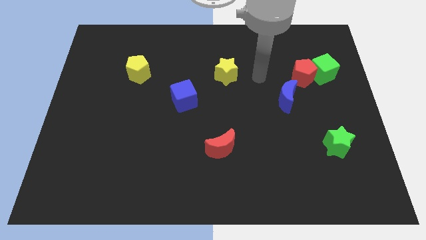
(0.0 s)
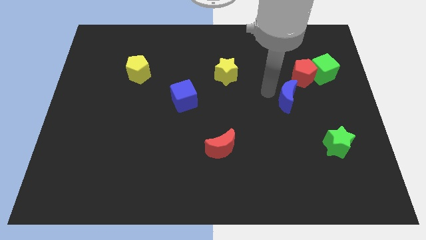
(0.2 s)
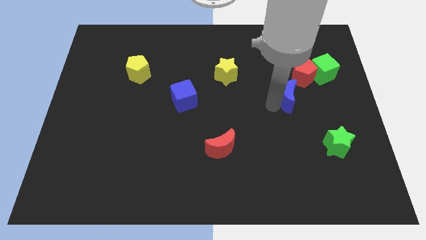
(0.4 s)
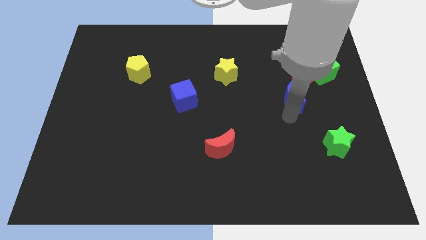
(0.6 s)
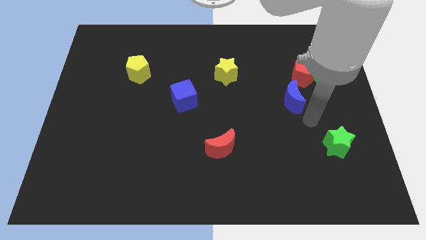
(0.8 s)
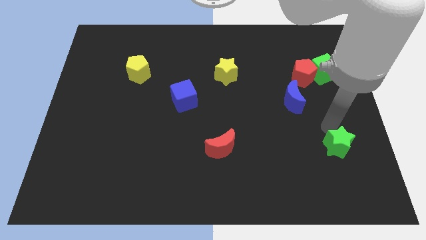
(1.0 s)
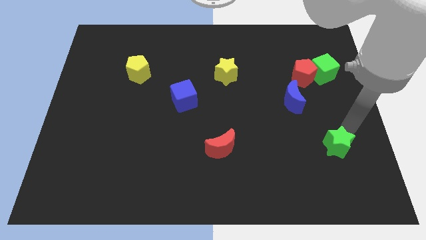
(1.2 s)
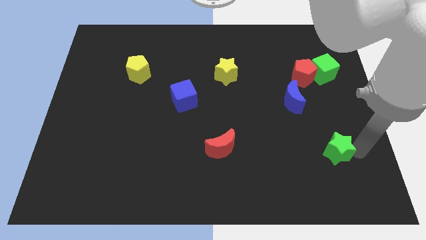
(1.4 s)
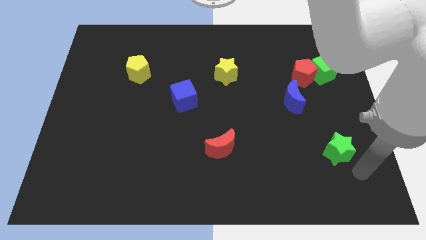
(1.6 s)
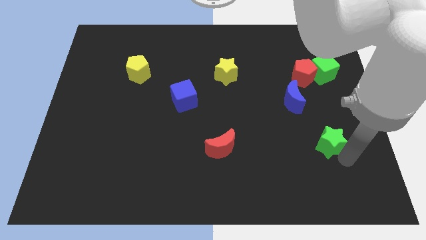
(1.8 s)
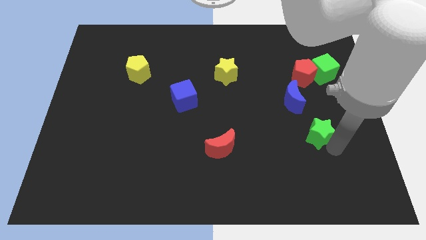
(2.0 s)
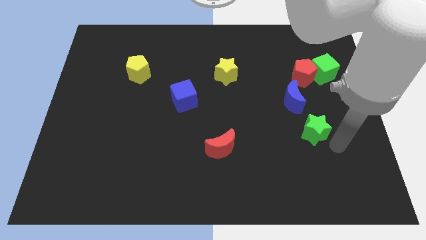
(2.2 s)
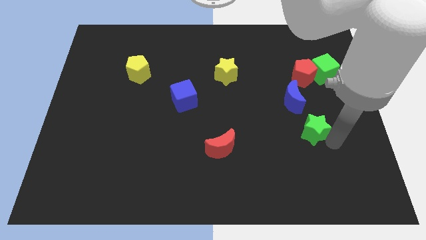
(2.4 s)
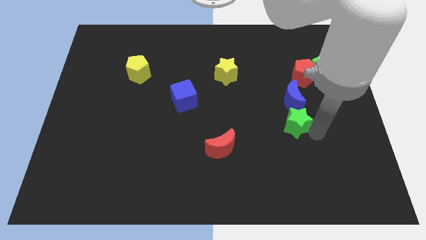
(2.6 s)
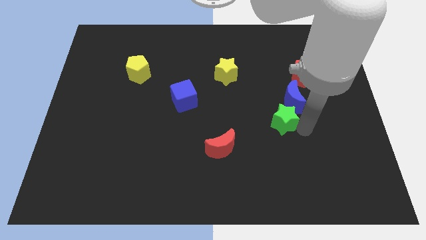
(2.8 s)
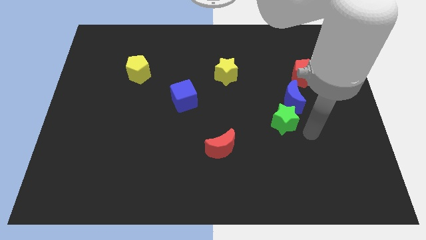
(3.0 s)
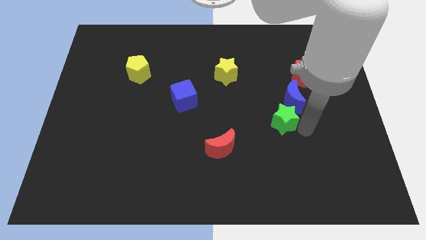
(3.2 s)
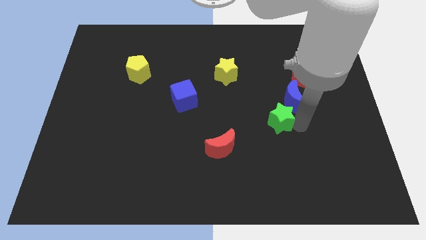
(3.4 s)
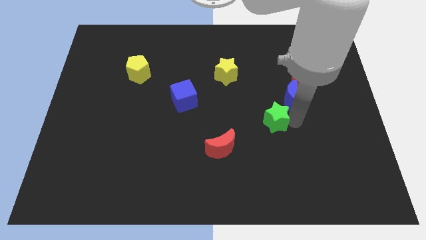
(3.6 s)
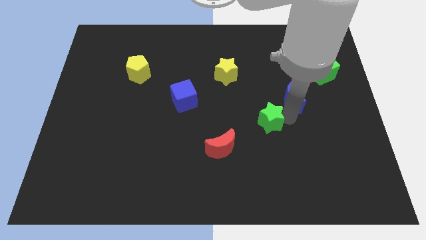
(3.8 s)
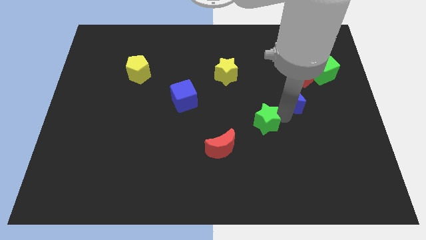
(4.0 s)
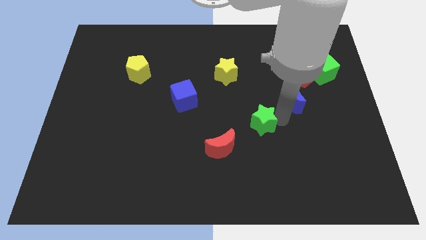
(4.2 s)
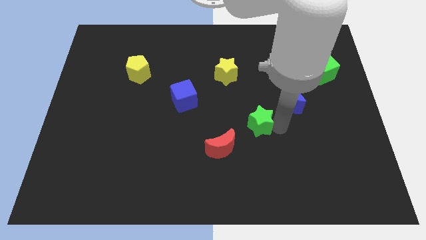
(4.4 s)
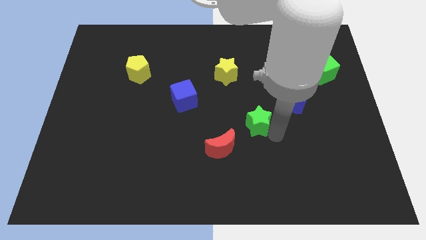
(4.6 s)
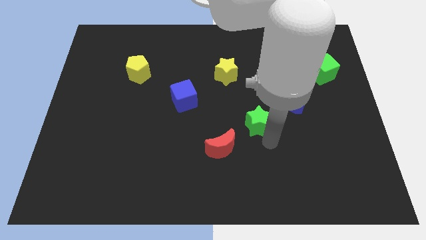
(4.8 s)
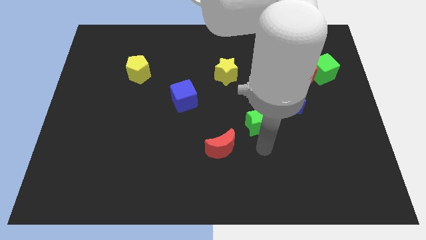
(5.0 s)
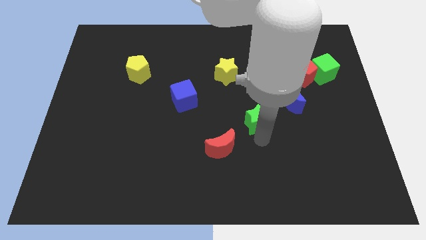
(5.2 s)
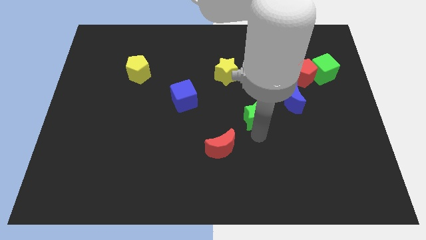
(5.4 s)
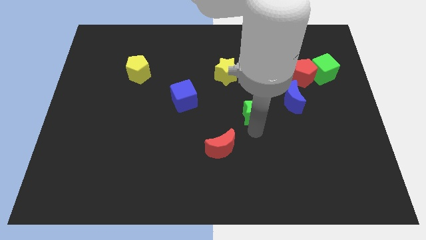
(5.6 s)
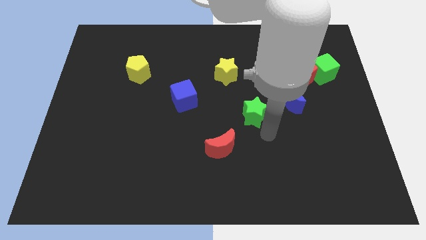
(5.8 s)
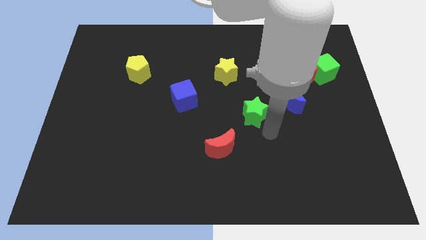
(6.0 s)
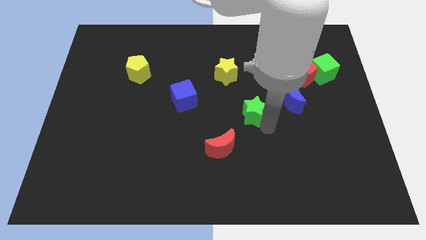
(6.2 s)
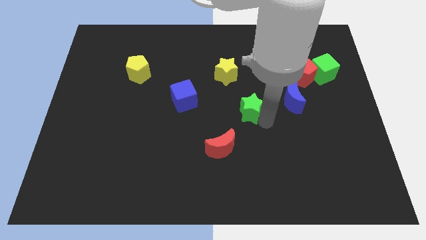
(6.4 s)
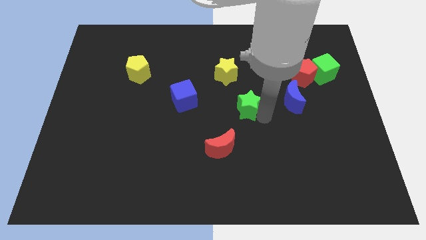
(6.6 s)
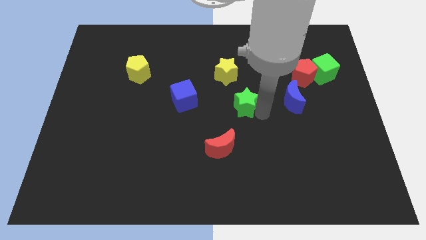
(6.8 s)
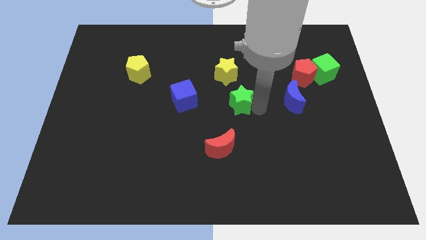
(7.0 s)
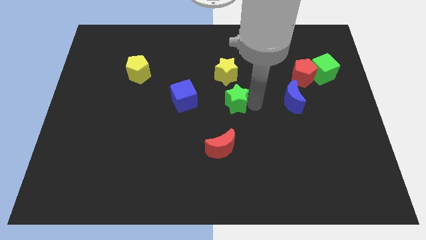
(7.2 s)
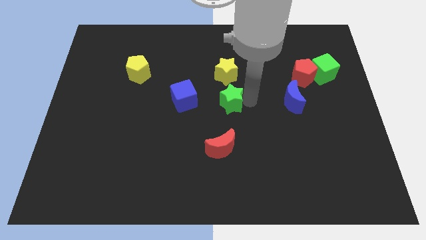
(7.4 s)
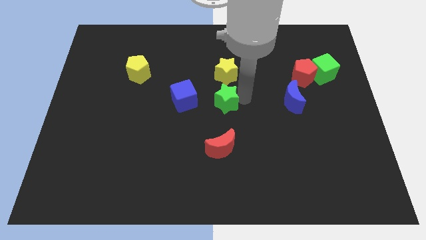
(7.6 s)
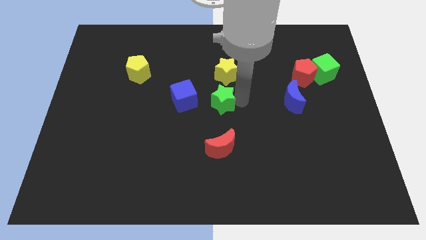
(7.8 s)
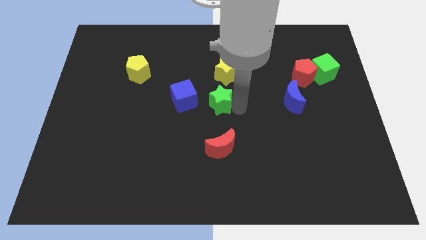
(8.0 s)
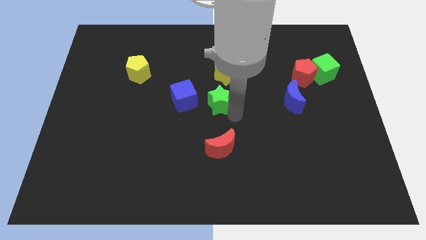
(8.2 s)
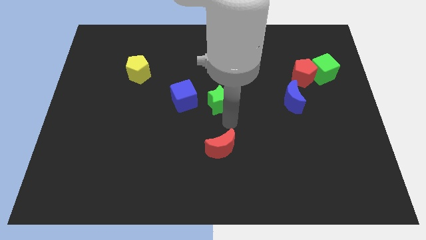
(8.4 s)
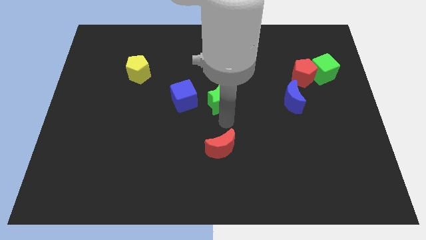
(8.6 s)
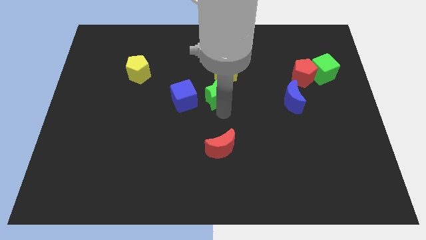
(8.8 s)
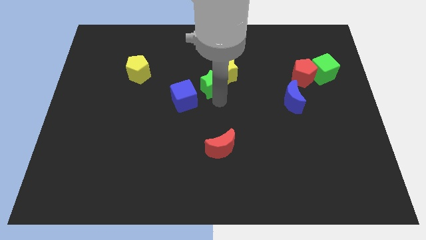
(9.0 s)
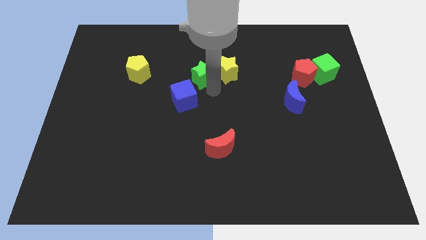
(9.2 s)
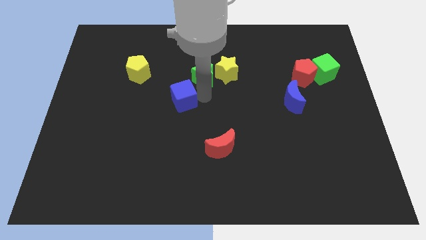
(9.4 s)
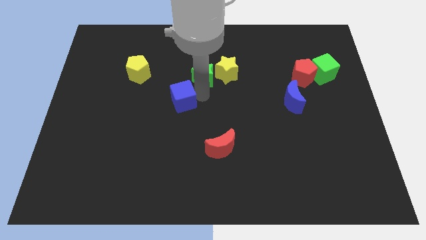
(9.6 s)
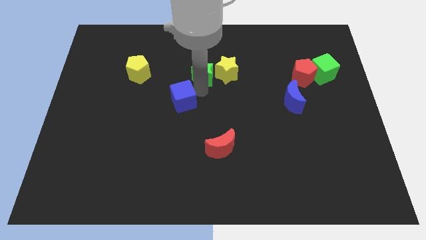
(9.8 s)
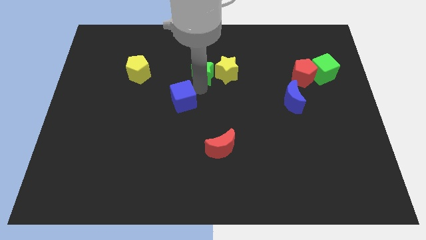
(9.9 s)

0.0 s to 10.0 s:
put the green star diagonally up and to the left of the yellow star

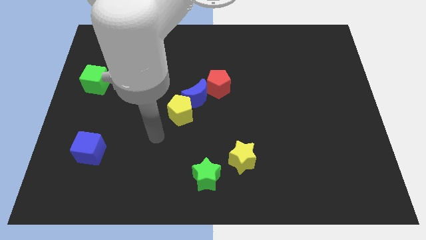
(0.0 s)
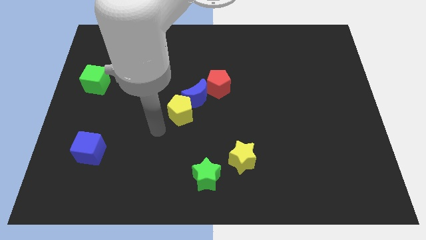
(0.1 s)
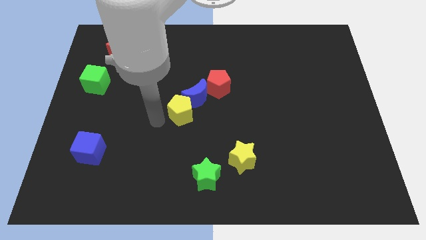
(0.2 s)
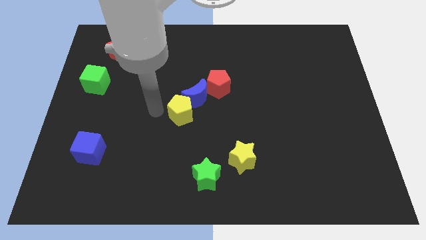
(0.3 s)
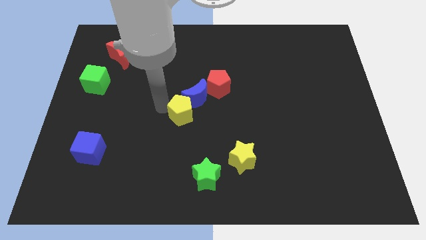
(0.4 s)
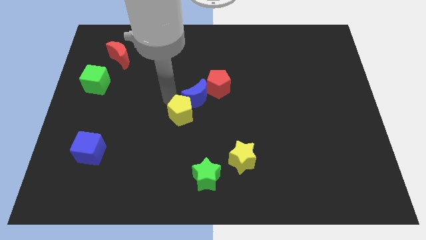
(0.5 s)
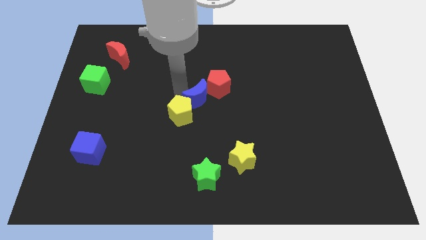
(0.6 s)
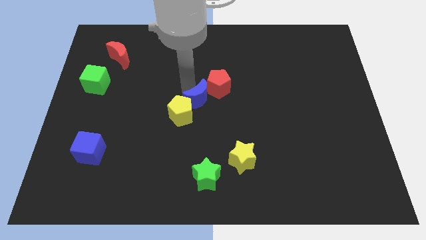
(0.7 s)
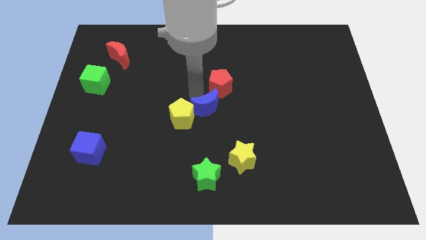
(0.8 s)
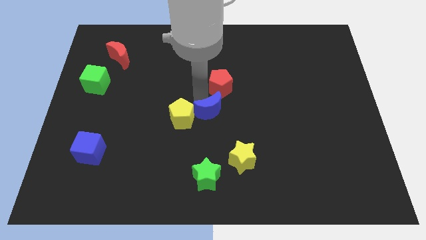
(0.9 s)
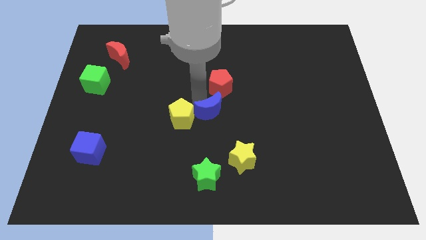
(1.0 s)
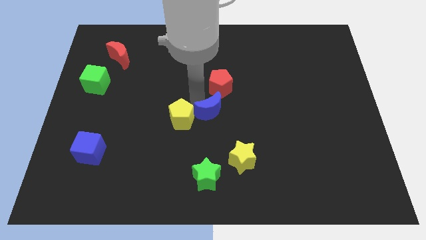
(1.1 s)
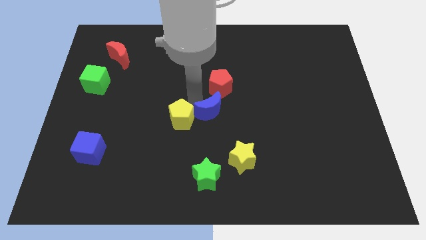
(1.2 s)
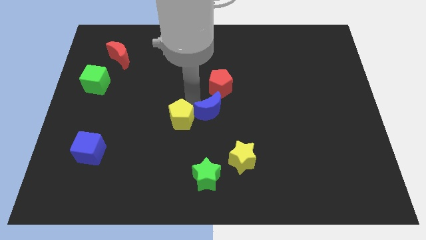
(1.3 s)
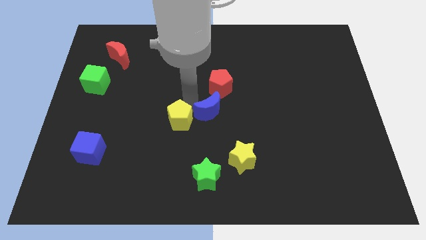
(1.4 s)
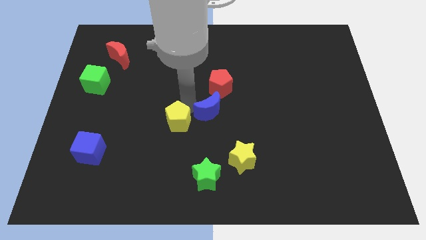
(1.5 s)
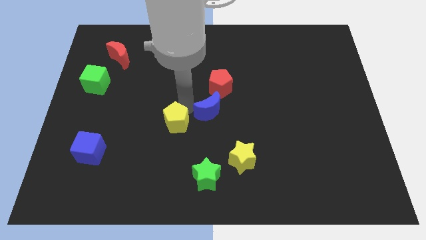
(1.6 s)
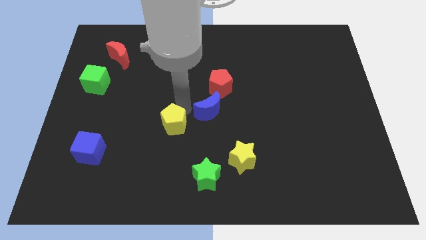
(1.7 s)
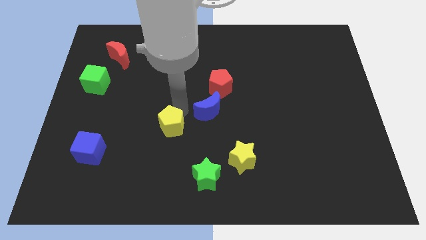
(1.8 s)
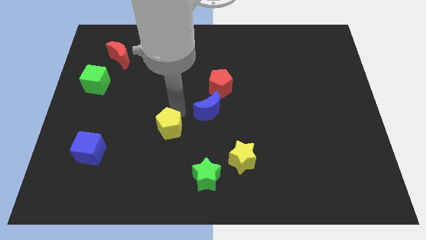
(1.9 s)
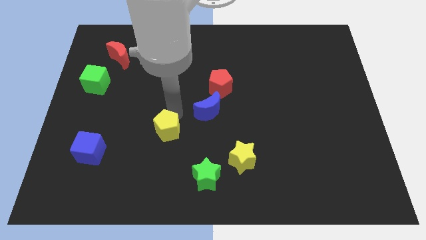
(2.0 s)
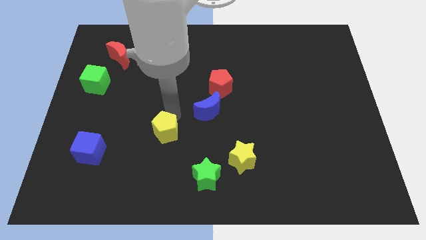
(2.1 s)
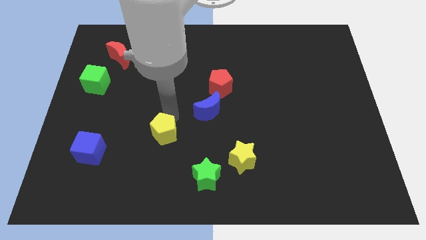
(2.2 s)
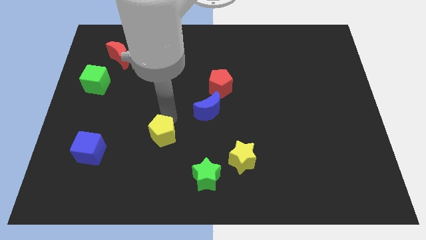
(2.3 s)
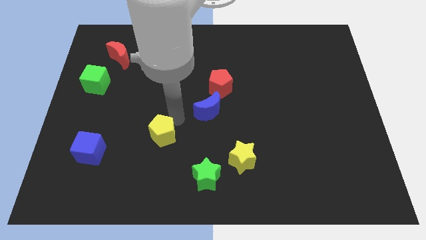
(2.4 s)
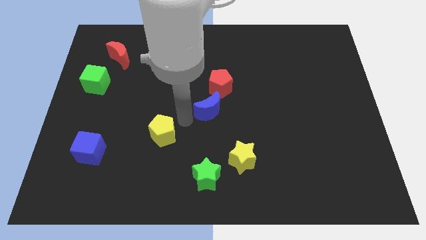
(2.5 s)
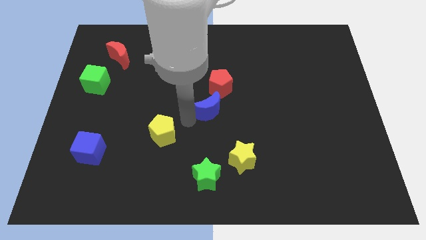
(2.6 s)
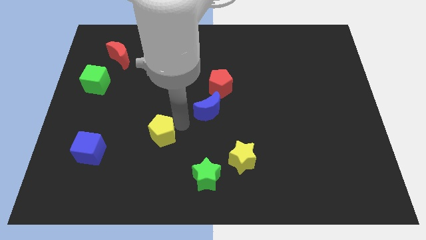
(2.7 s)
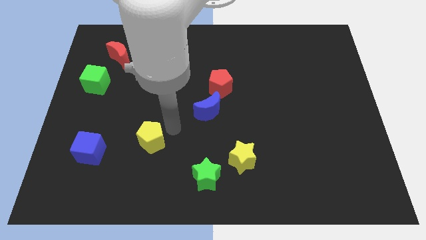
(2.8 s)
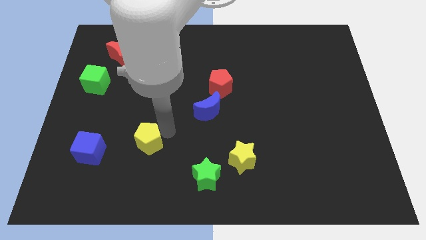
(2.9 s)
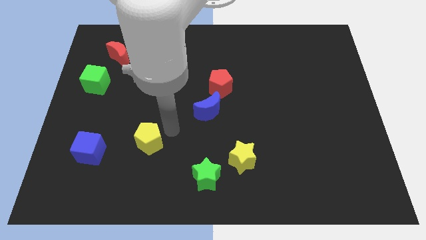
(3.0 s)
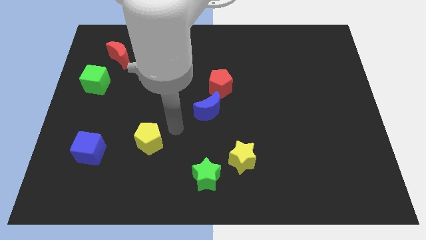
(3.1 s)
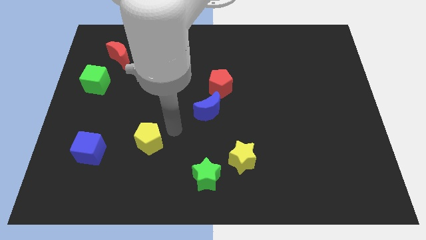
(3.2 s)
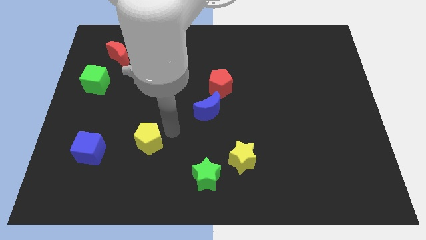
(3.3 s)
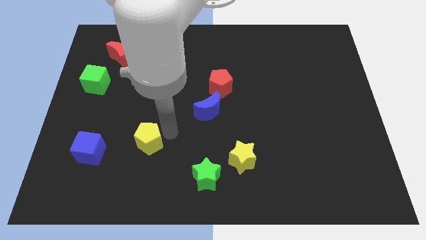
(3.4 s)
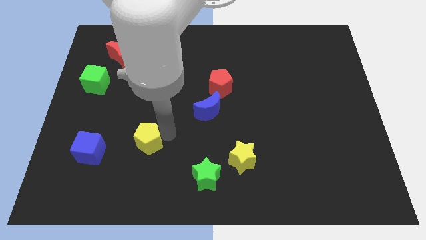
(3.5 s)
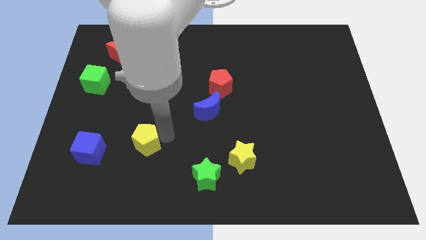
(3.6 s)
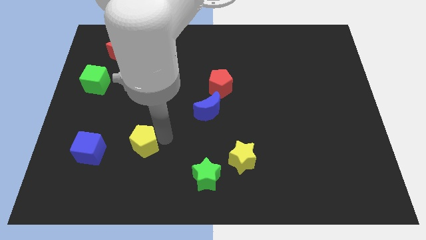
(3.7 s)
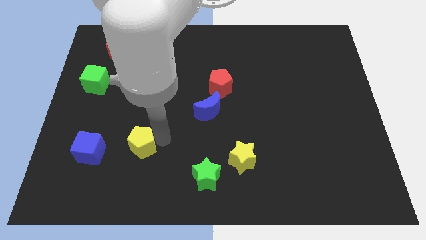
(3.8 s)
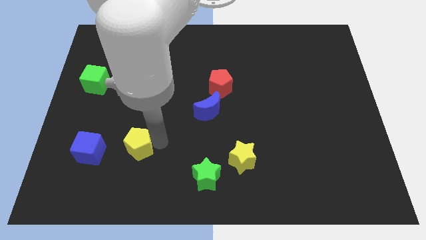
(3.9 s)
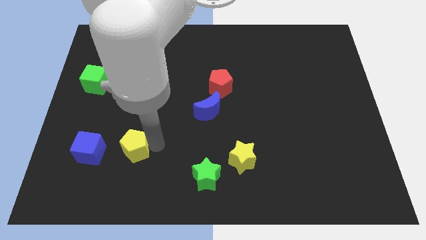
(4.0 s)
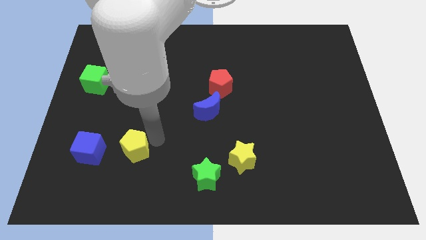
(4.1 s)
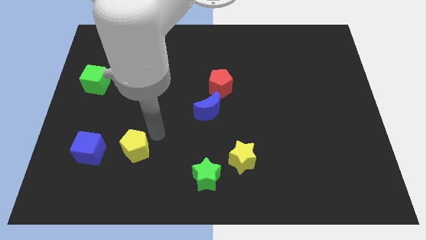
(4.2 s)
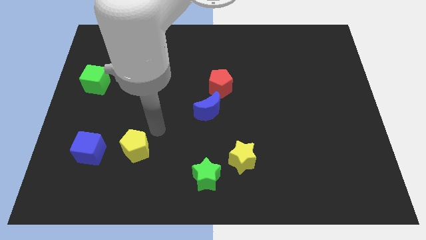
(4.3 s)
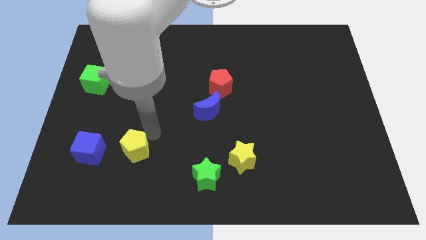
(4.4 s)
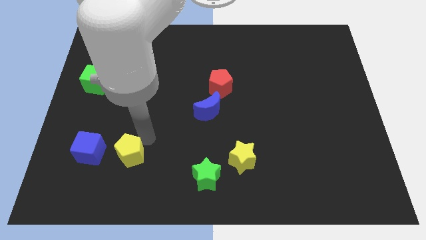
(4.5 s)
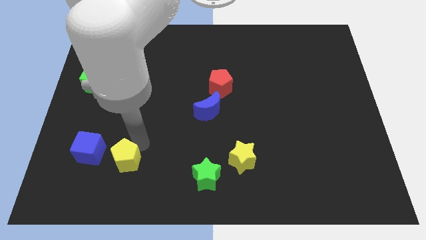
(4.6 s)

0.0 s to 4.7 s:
move the yellow pentagon diagonally down and to the right of the blue cube
